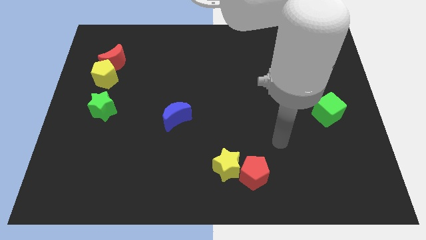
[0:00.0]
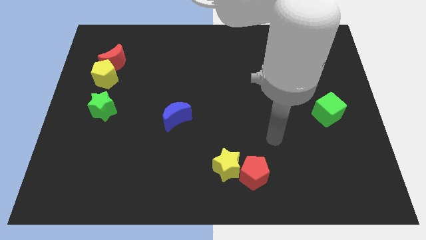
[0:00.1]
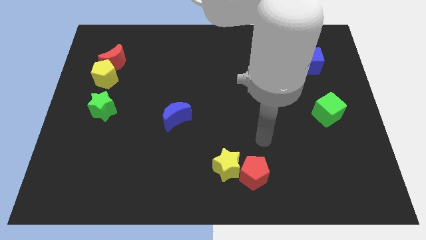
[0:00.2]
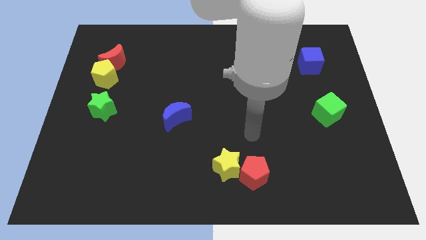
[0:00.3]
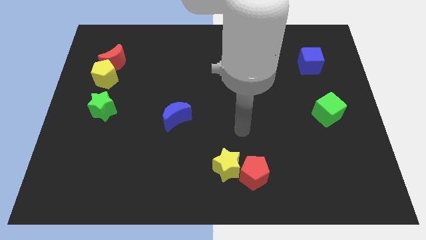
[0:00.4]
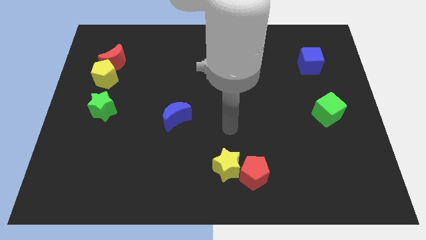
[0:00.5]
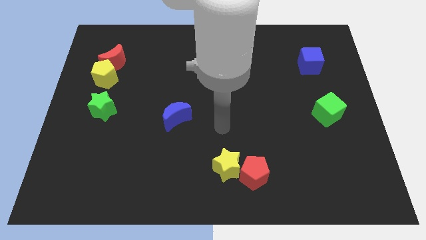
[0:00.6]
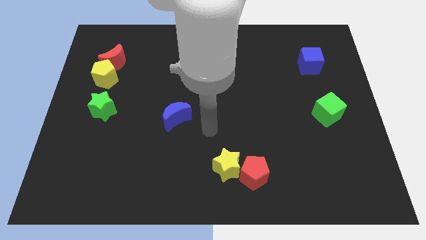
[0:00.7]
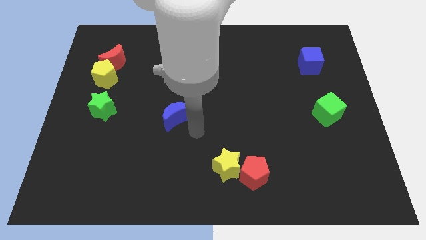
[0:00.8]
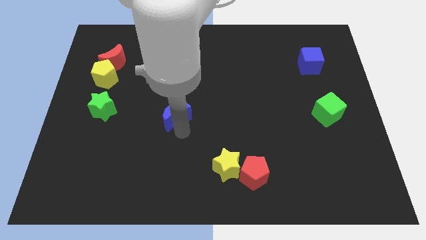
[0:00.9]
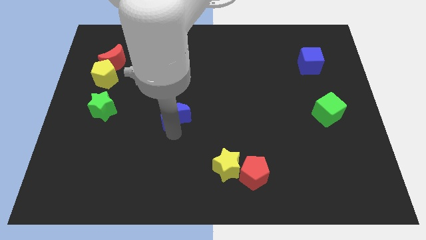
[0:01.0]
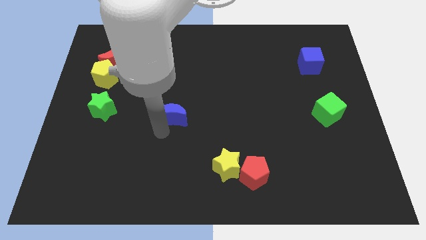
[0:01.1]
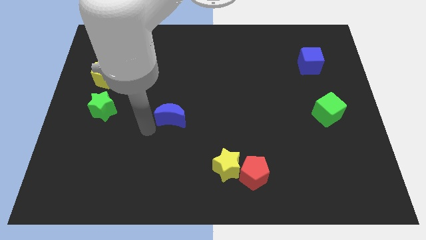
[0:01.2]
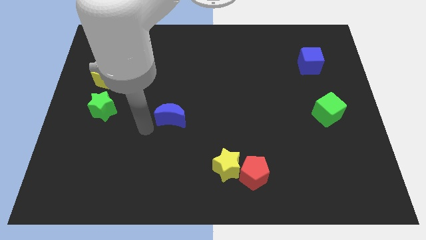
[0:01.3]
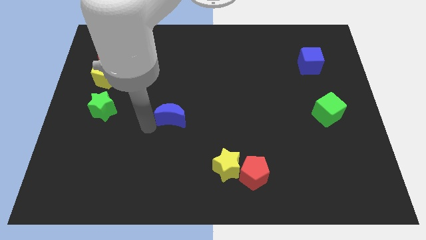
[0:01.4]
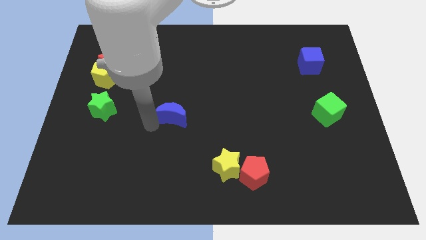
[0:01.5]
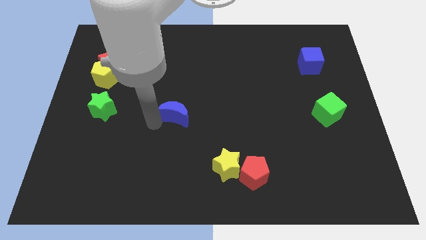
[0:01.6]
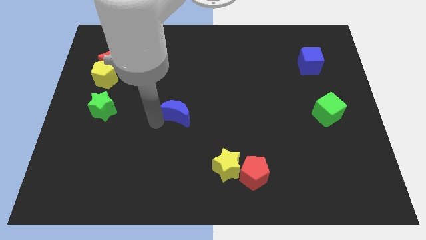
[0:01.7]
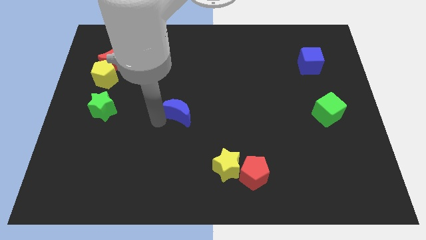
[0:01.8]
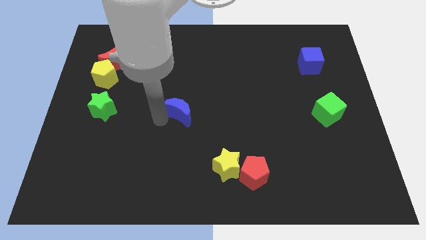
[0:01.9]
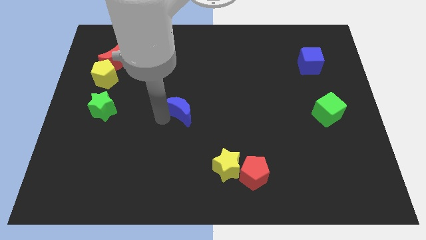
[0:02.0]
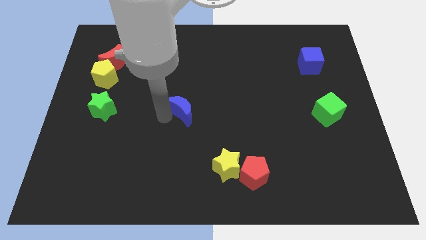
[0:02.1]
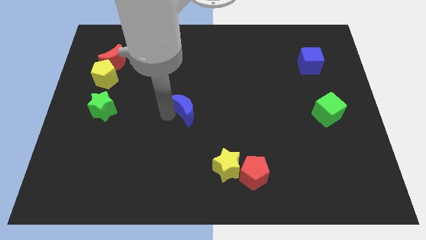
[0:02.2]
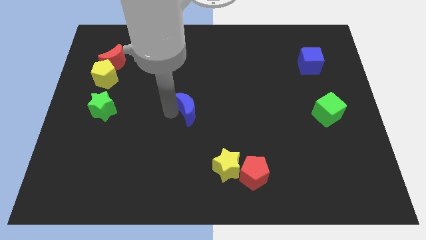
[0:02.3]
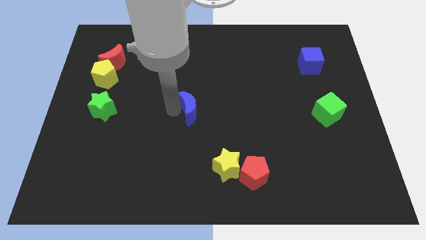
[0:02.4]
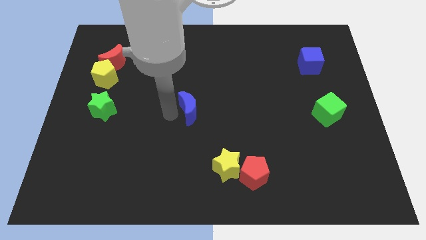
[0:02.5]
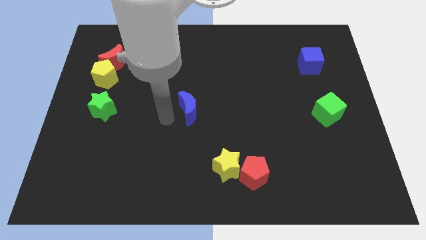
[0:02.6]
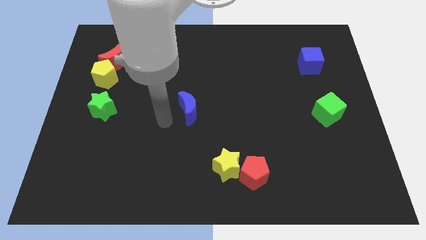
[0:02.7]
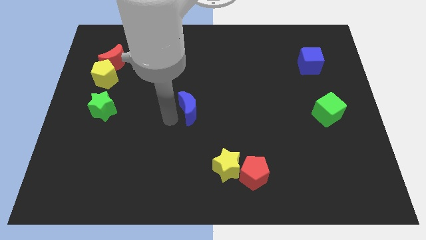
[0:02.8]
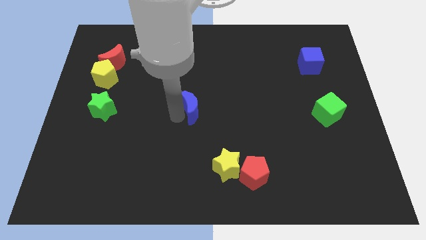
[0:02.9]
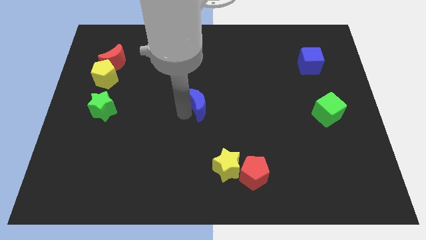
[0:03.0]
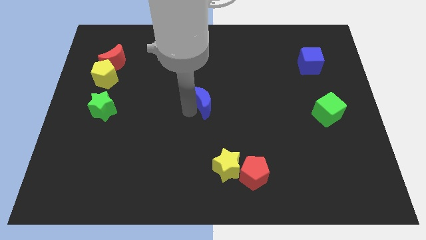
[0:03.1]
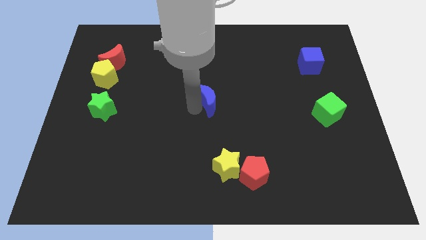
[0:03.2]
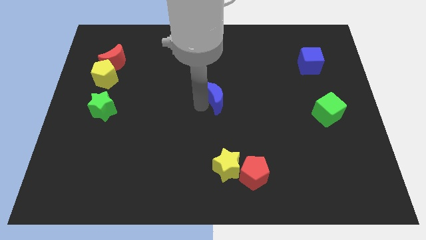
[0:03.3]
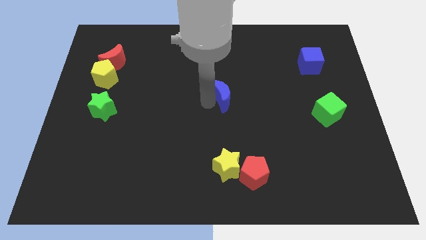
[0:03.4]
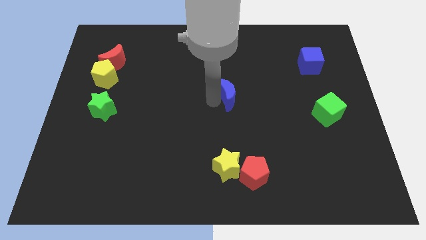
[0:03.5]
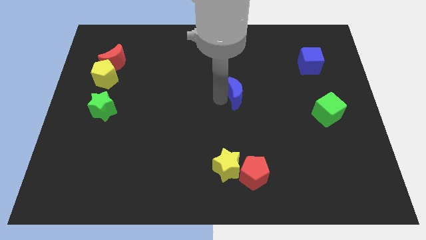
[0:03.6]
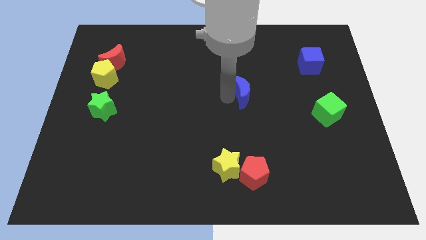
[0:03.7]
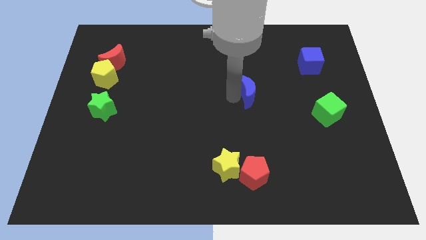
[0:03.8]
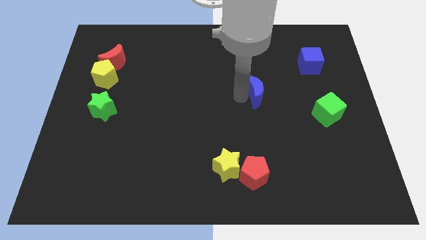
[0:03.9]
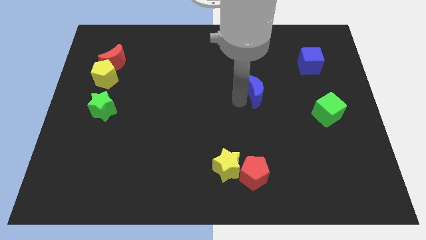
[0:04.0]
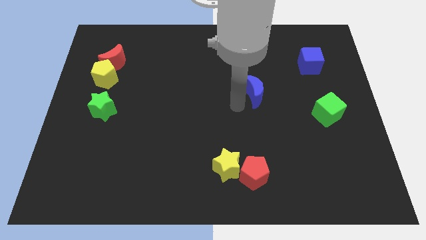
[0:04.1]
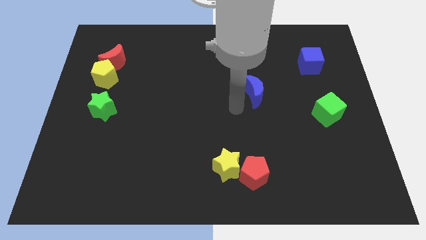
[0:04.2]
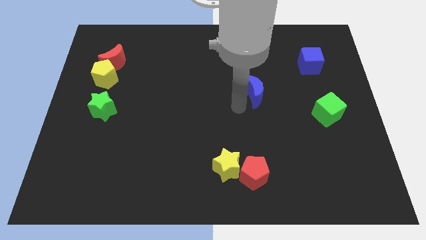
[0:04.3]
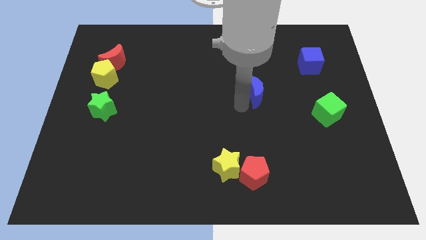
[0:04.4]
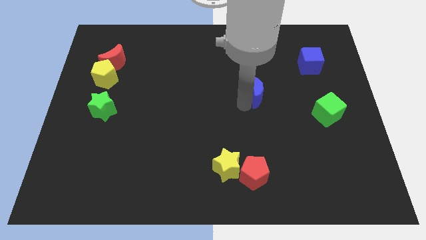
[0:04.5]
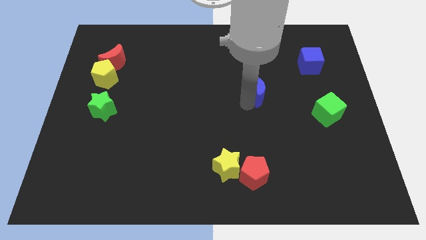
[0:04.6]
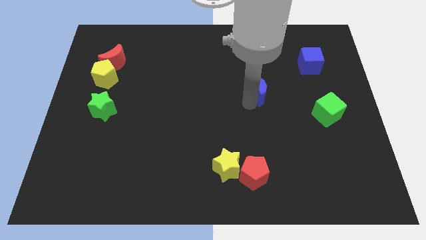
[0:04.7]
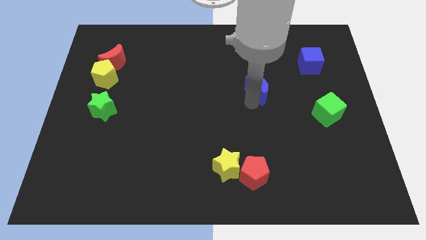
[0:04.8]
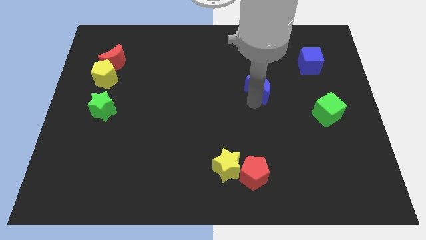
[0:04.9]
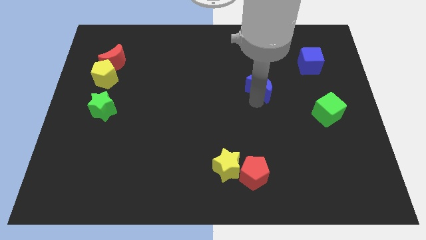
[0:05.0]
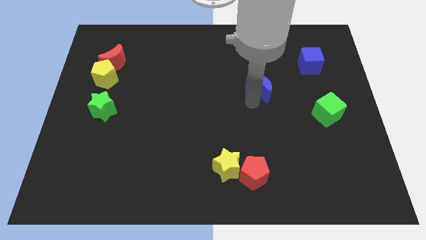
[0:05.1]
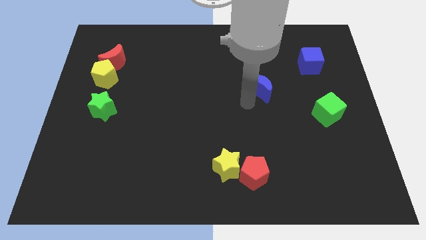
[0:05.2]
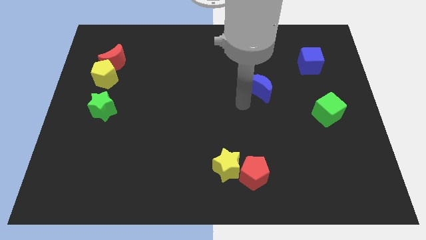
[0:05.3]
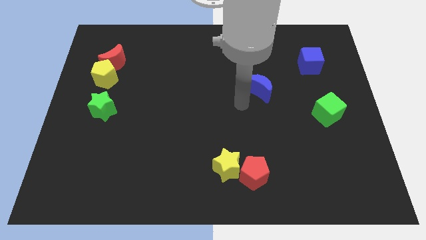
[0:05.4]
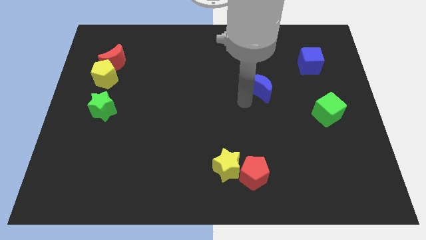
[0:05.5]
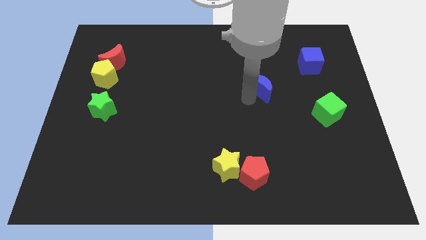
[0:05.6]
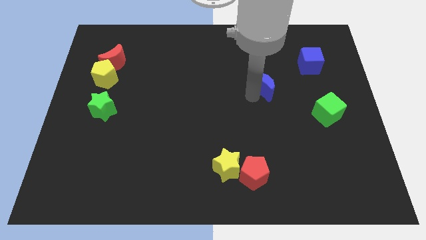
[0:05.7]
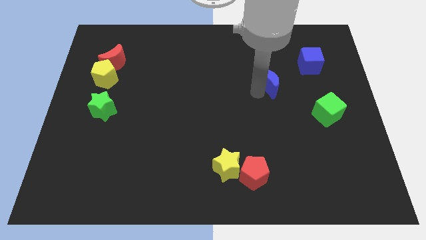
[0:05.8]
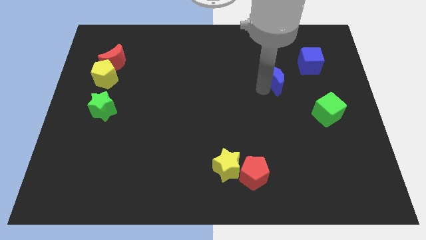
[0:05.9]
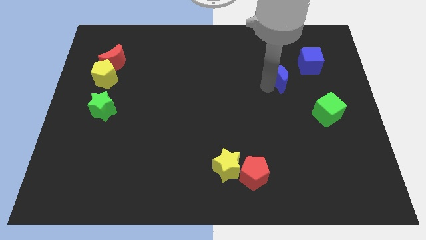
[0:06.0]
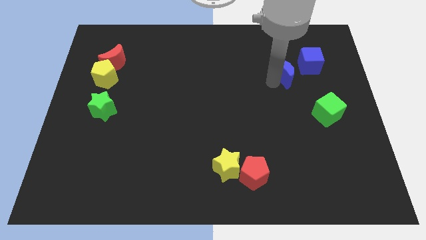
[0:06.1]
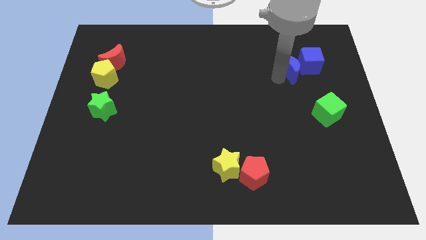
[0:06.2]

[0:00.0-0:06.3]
move the blue moon close to the blue cube

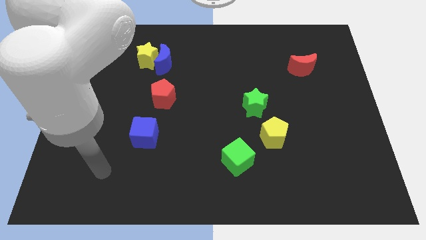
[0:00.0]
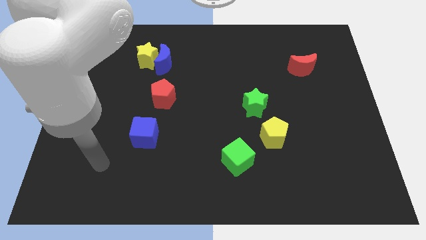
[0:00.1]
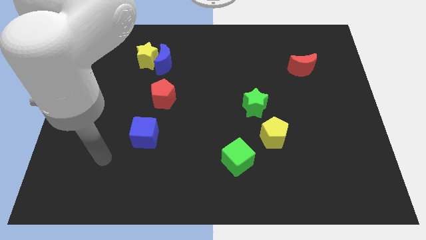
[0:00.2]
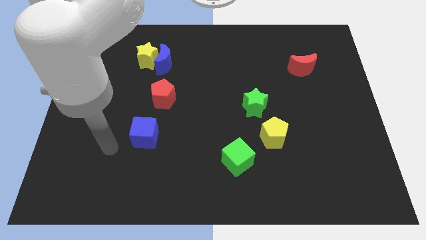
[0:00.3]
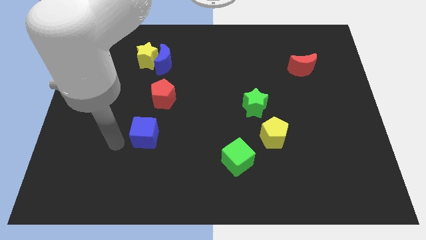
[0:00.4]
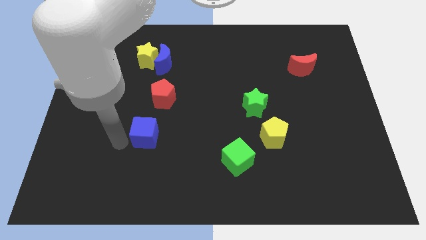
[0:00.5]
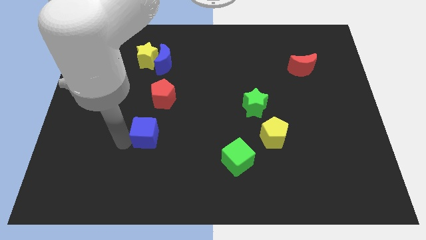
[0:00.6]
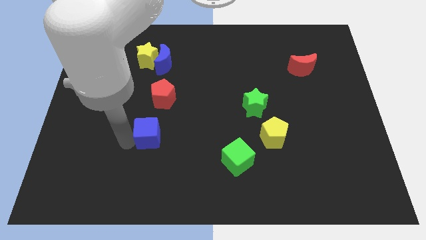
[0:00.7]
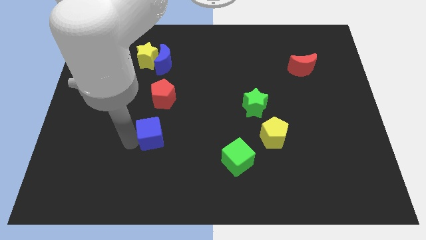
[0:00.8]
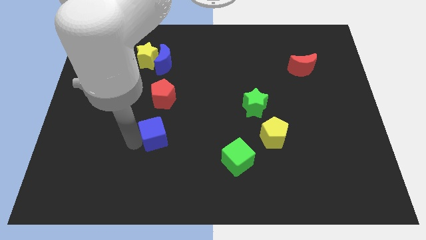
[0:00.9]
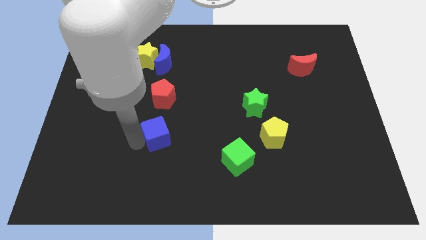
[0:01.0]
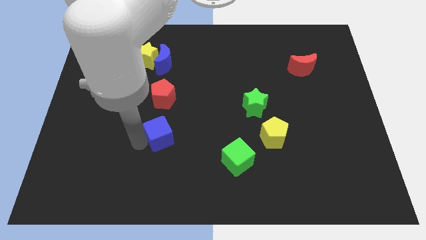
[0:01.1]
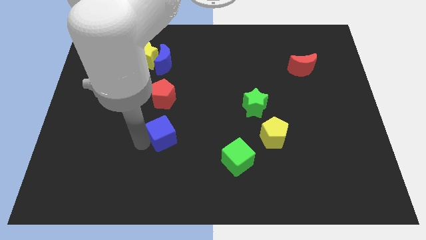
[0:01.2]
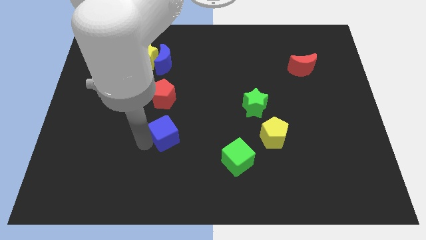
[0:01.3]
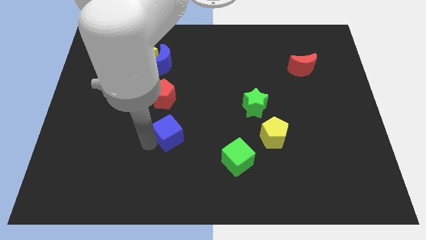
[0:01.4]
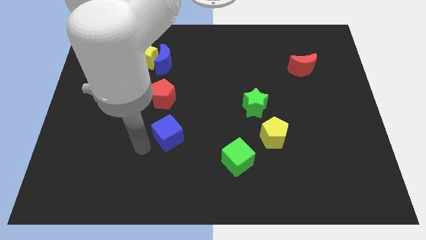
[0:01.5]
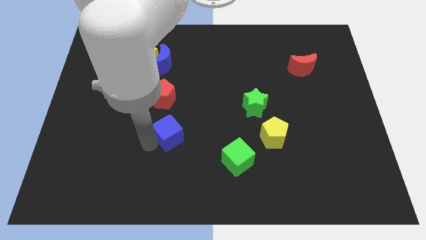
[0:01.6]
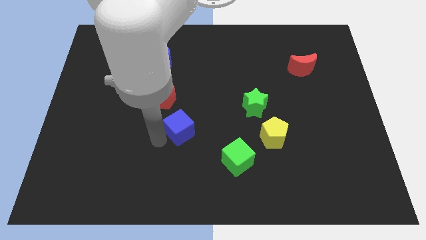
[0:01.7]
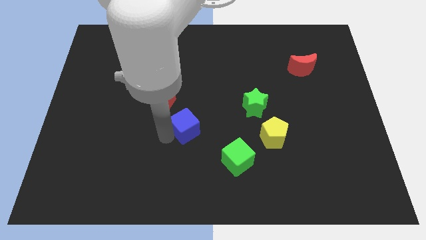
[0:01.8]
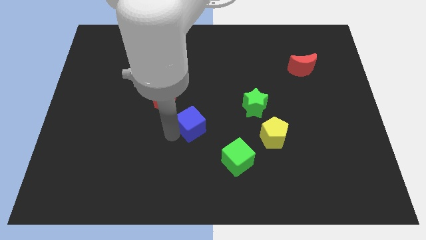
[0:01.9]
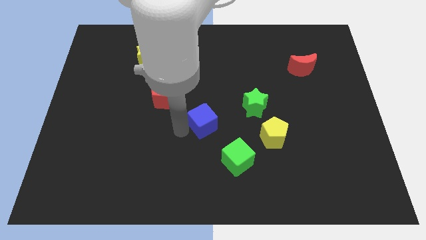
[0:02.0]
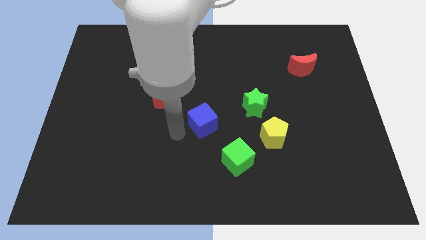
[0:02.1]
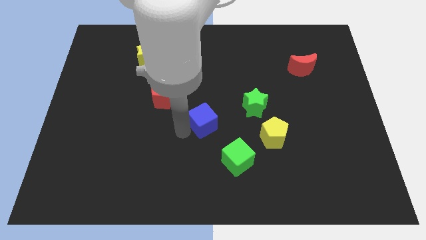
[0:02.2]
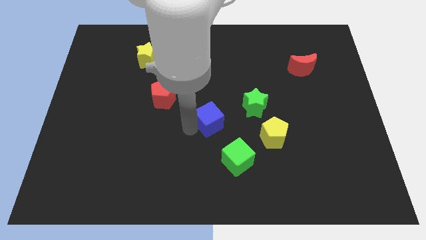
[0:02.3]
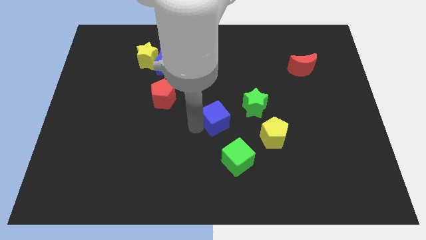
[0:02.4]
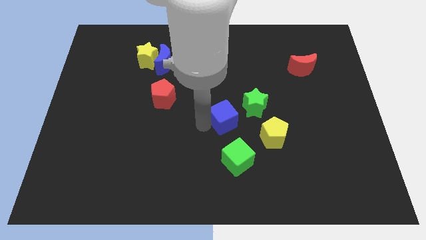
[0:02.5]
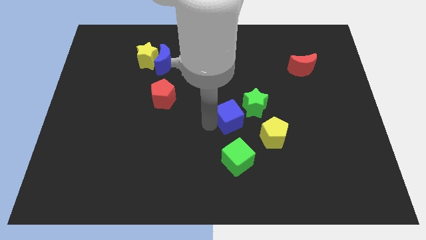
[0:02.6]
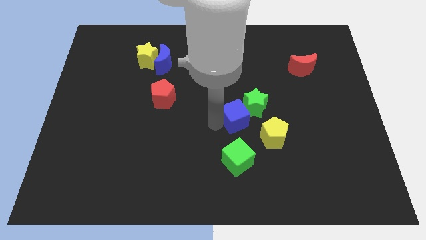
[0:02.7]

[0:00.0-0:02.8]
move the blue cube next to the green star
